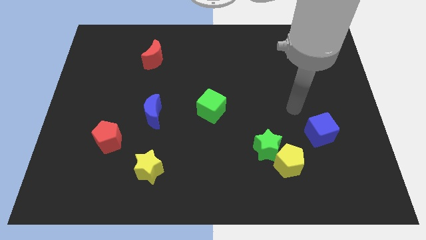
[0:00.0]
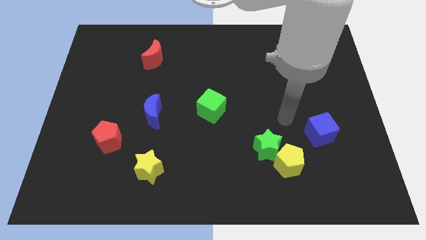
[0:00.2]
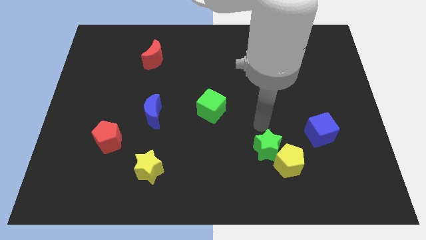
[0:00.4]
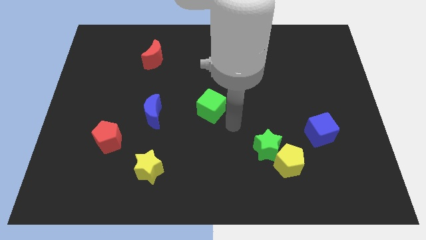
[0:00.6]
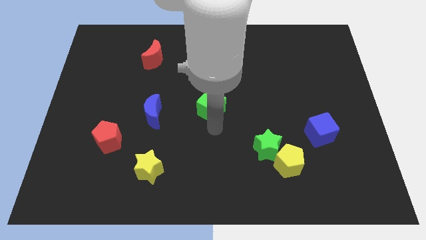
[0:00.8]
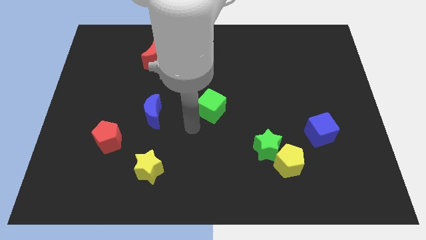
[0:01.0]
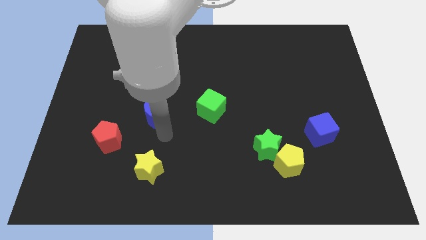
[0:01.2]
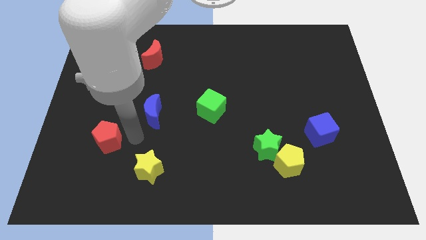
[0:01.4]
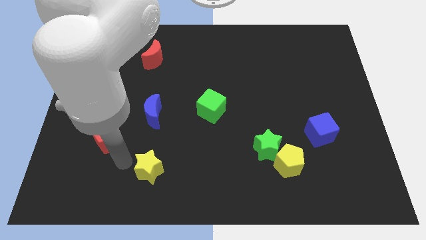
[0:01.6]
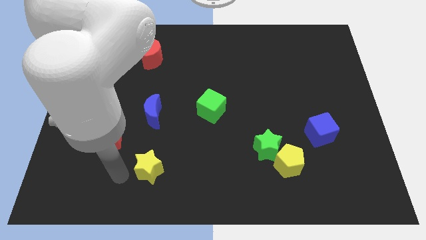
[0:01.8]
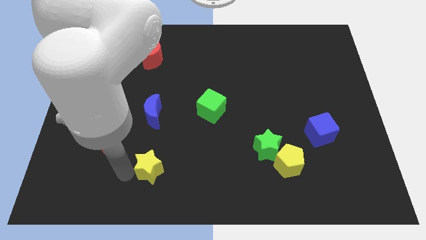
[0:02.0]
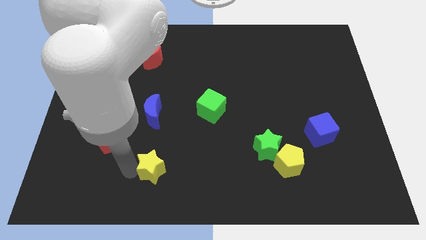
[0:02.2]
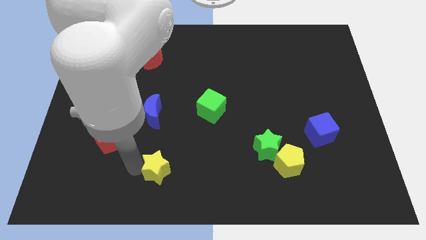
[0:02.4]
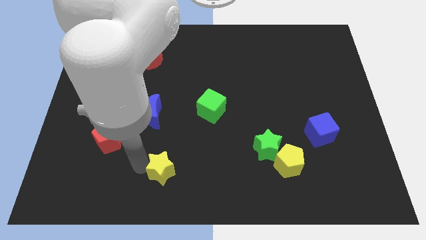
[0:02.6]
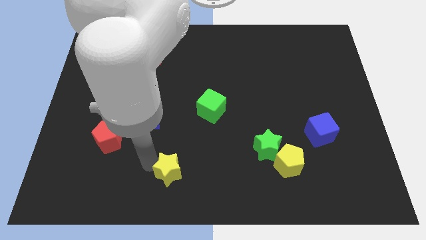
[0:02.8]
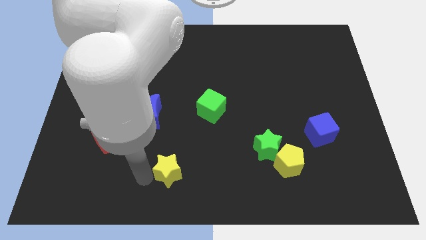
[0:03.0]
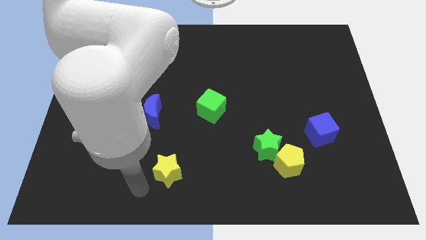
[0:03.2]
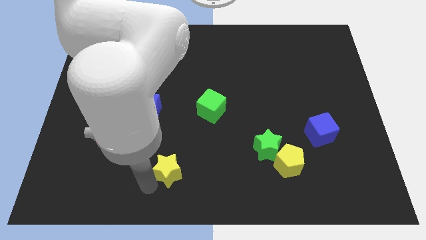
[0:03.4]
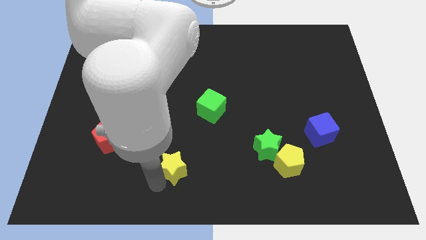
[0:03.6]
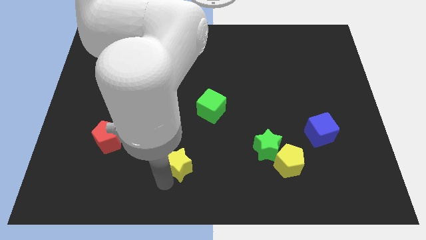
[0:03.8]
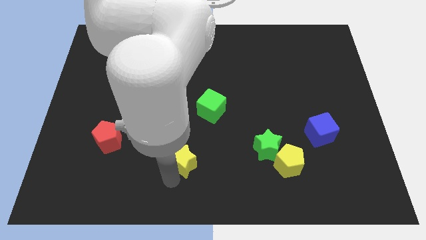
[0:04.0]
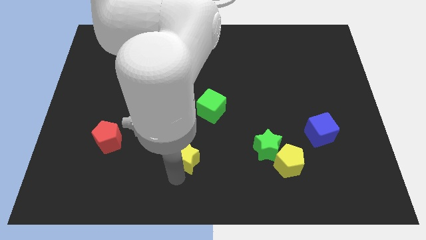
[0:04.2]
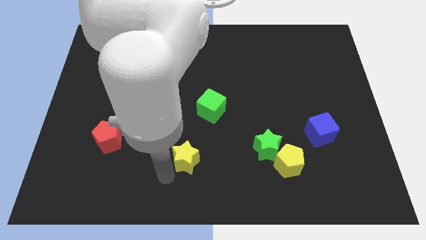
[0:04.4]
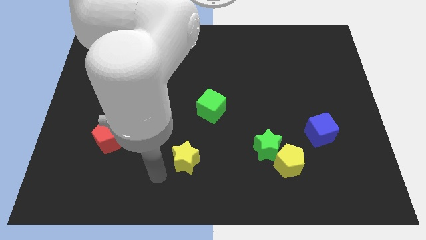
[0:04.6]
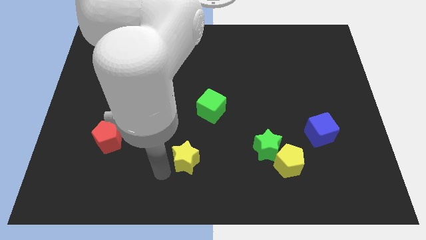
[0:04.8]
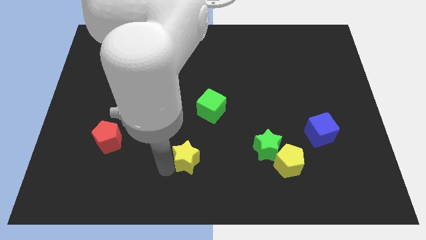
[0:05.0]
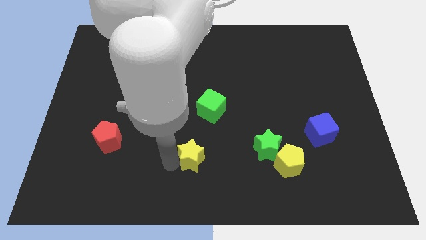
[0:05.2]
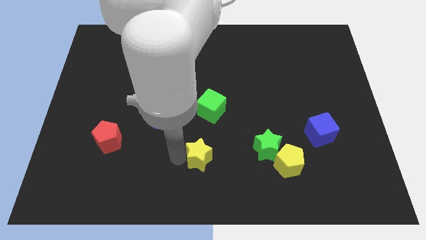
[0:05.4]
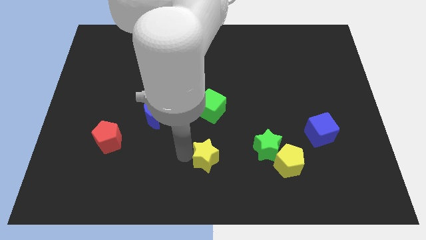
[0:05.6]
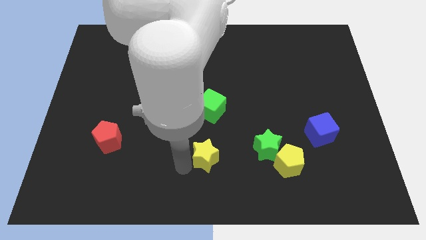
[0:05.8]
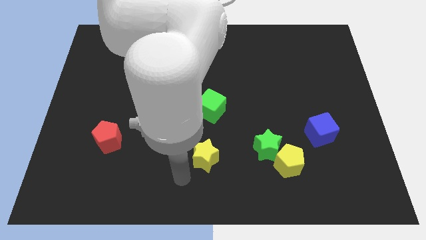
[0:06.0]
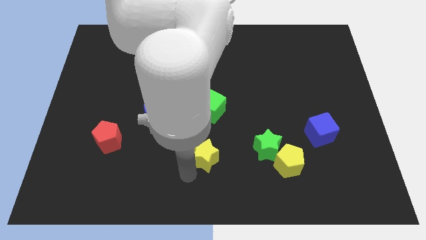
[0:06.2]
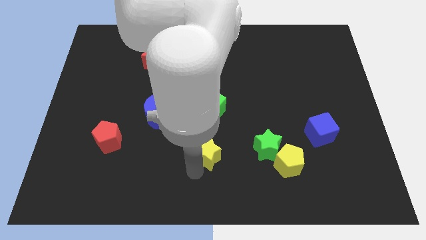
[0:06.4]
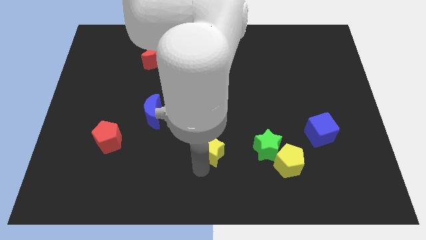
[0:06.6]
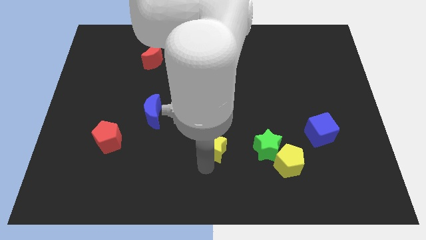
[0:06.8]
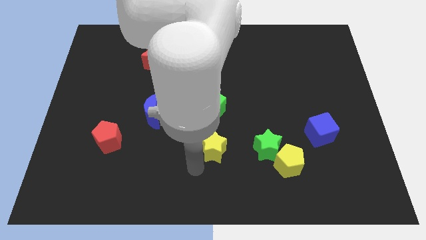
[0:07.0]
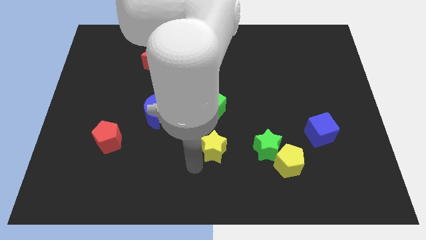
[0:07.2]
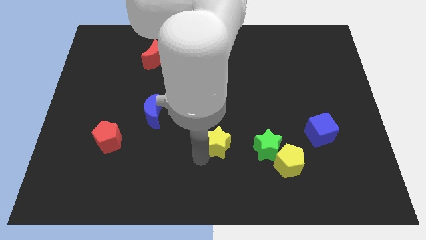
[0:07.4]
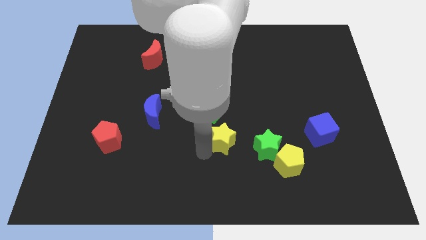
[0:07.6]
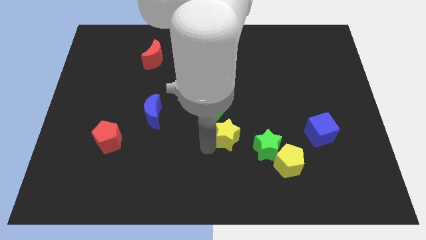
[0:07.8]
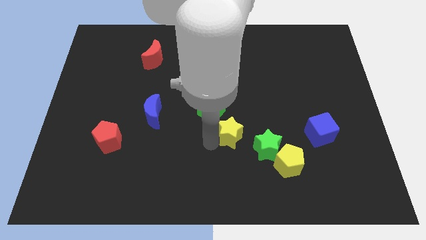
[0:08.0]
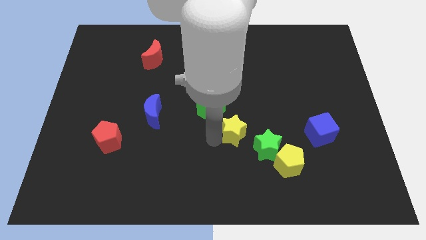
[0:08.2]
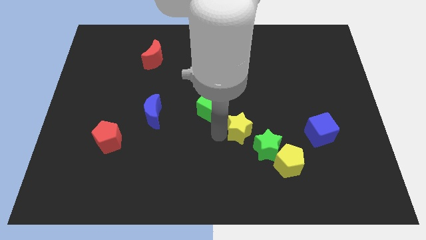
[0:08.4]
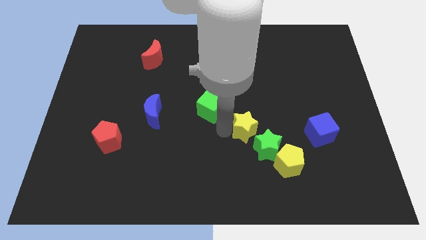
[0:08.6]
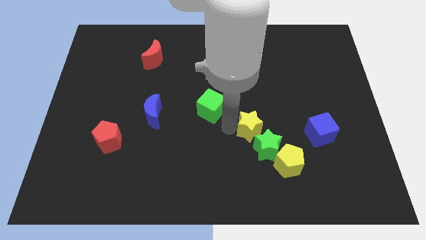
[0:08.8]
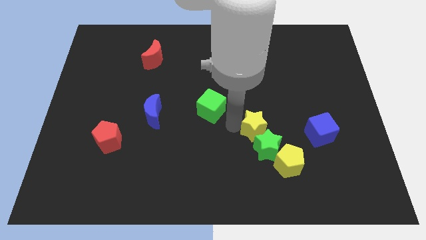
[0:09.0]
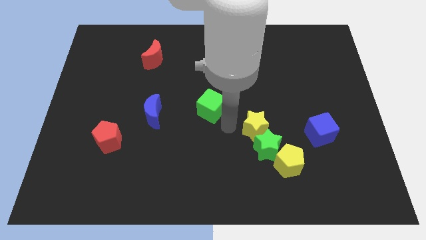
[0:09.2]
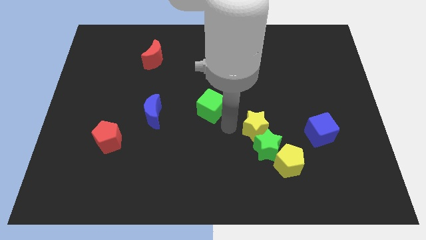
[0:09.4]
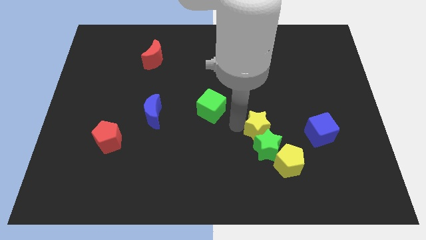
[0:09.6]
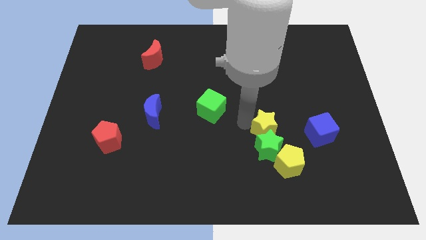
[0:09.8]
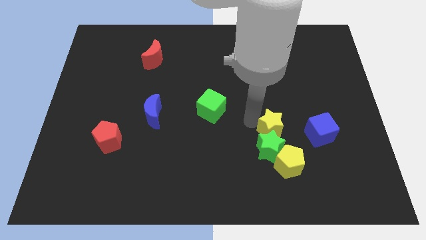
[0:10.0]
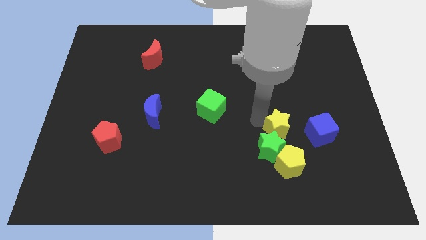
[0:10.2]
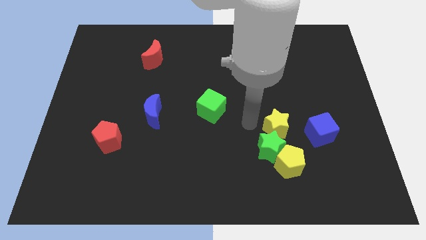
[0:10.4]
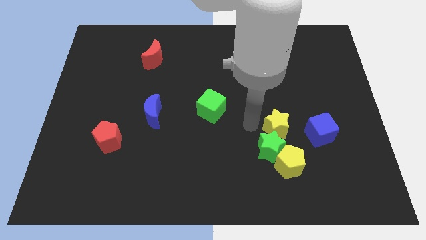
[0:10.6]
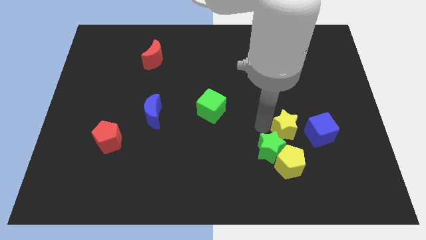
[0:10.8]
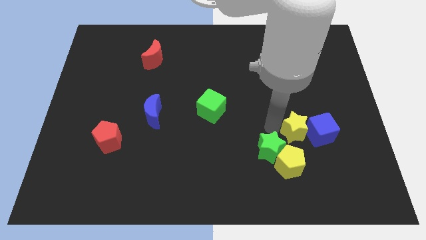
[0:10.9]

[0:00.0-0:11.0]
push the yellow star to the blue cube

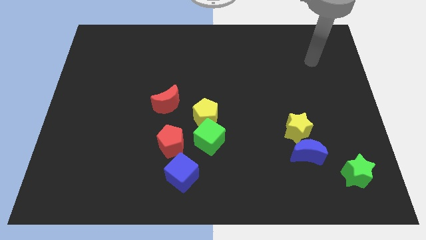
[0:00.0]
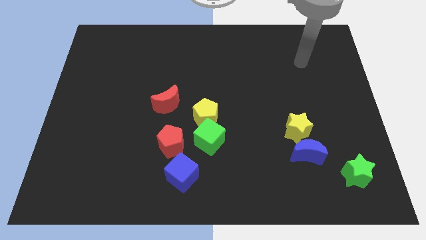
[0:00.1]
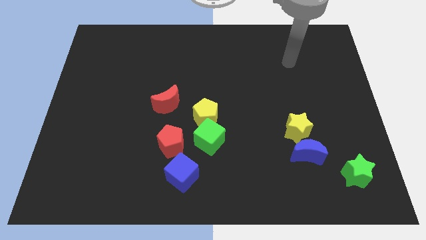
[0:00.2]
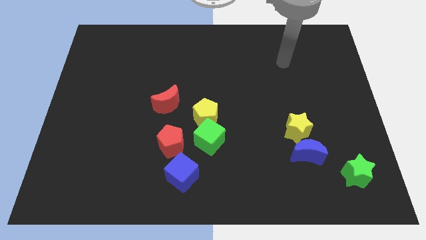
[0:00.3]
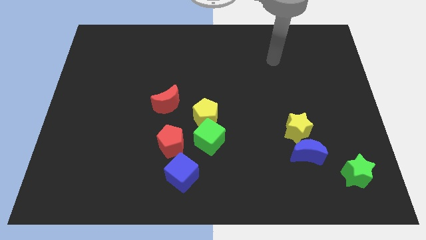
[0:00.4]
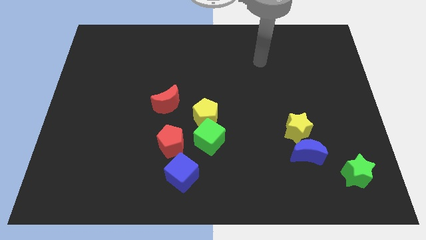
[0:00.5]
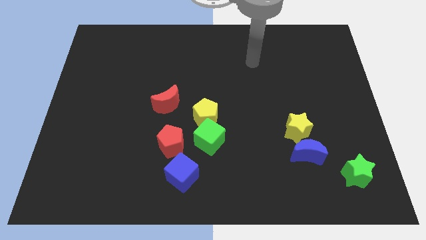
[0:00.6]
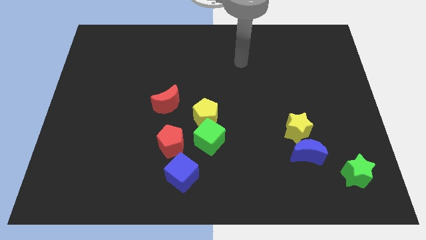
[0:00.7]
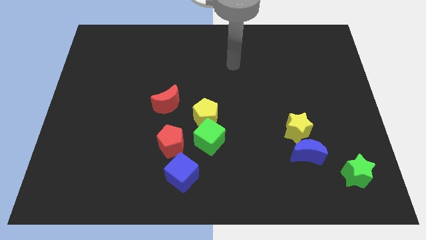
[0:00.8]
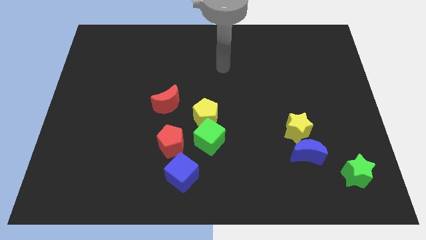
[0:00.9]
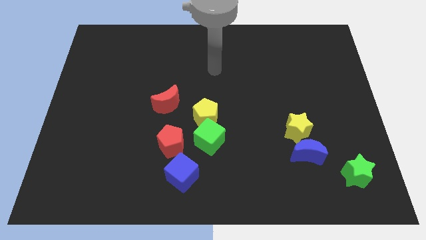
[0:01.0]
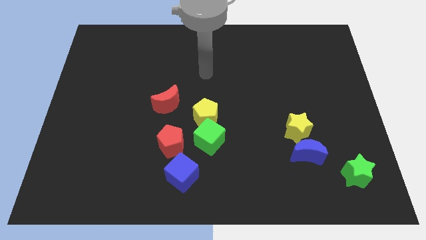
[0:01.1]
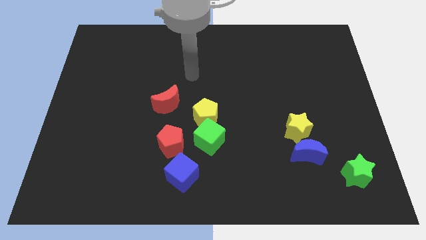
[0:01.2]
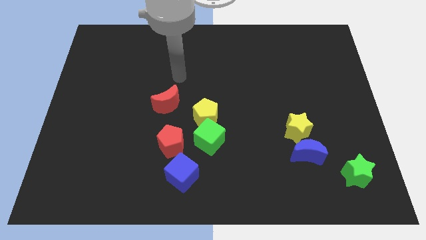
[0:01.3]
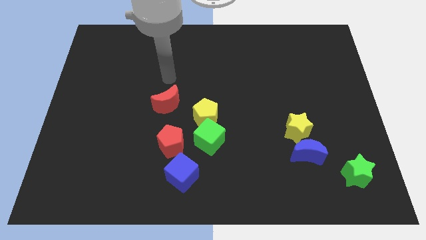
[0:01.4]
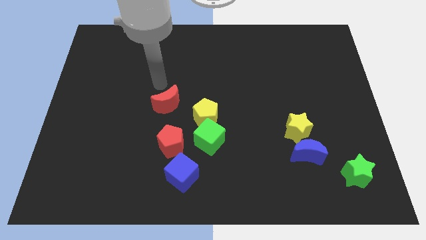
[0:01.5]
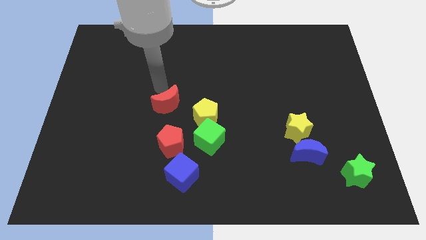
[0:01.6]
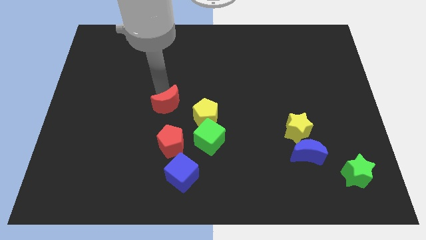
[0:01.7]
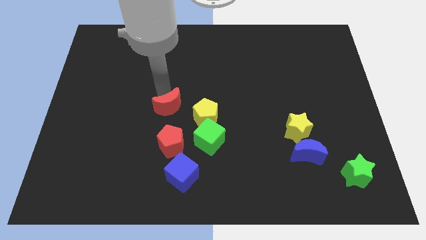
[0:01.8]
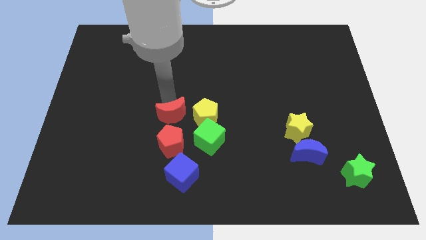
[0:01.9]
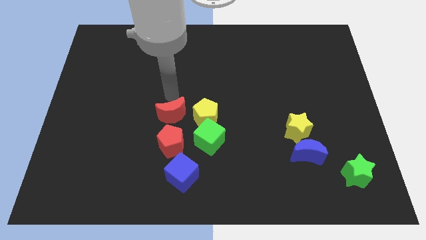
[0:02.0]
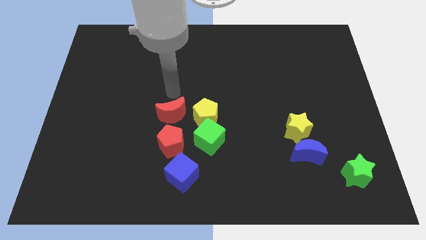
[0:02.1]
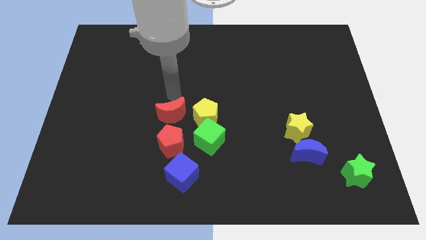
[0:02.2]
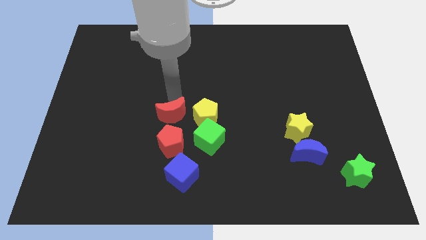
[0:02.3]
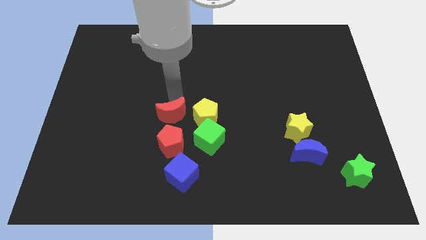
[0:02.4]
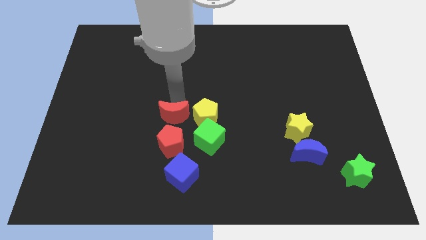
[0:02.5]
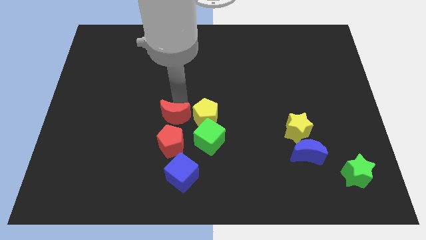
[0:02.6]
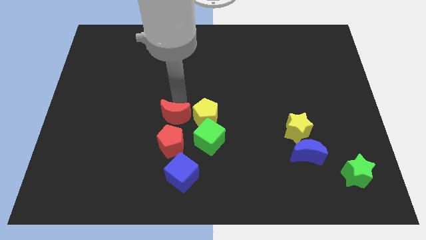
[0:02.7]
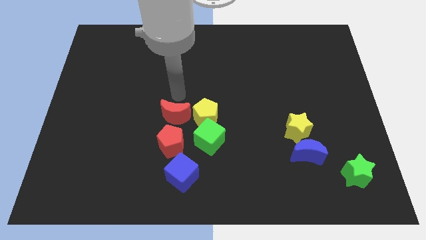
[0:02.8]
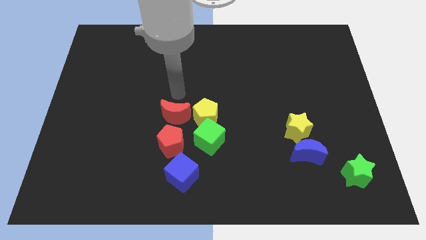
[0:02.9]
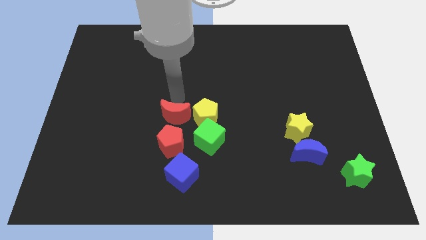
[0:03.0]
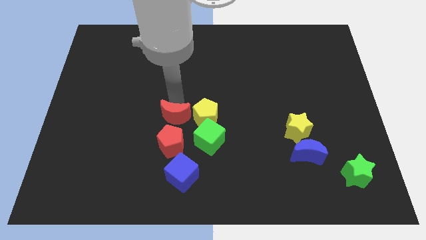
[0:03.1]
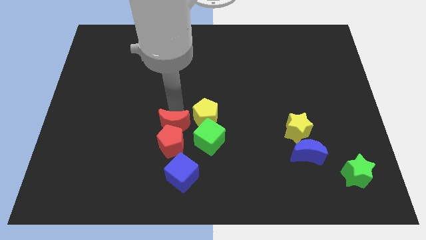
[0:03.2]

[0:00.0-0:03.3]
move the red moon close to the red pentagon
